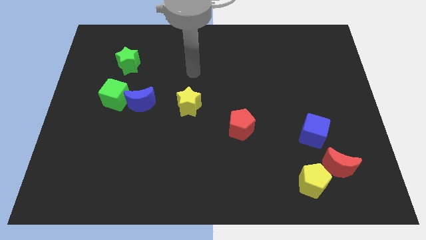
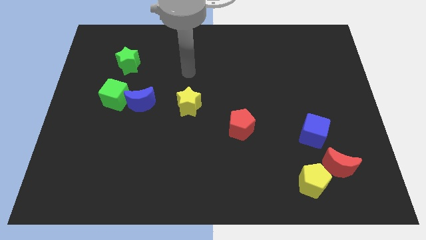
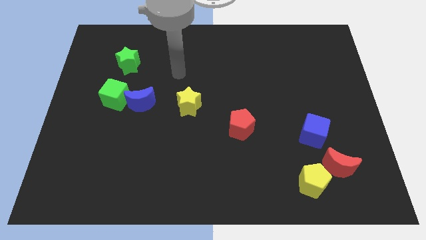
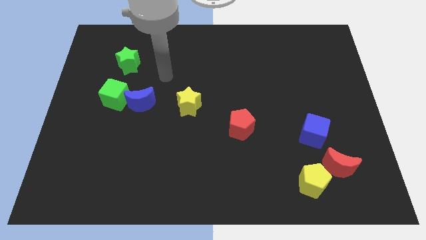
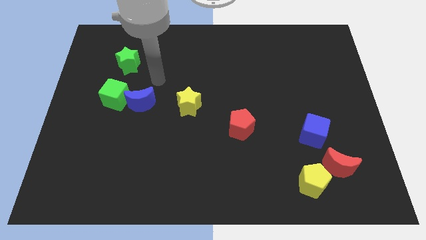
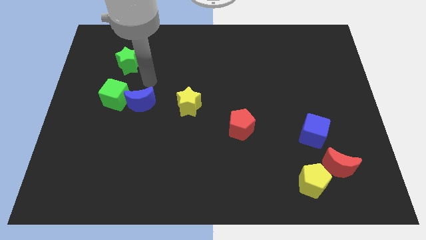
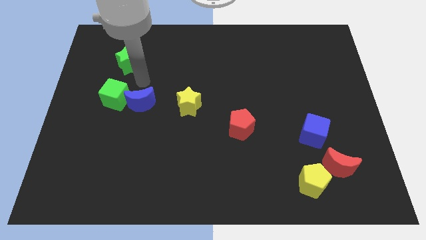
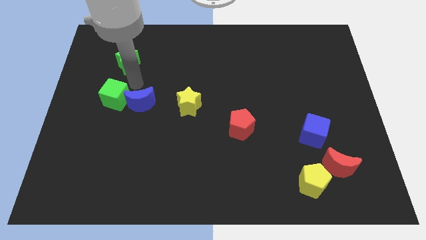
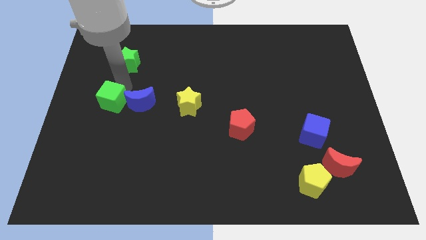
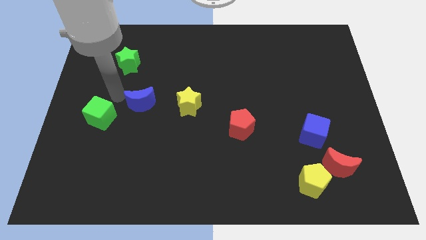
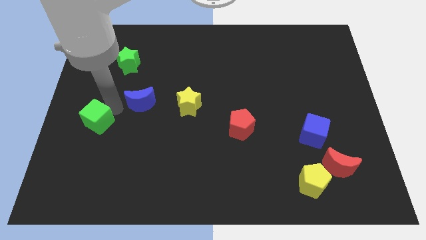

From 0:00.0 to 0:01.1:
separate the blue moon from the green cube

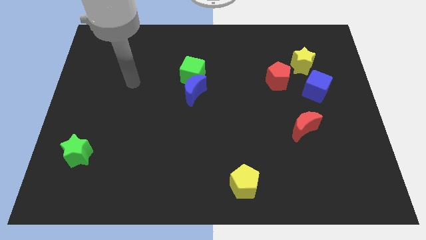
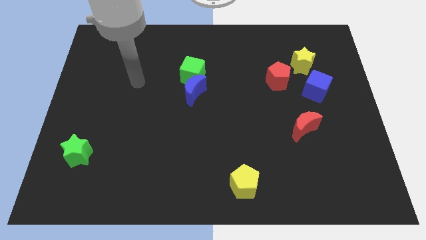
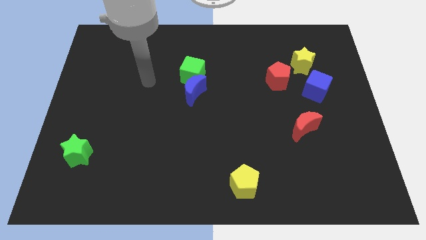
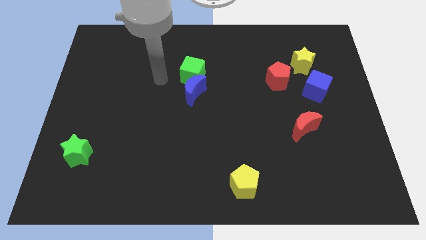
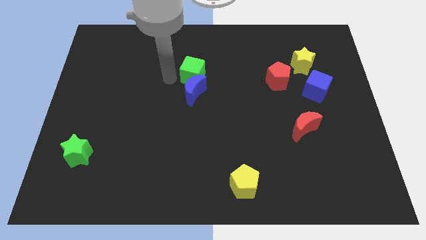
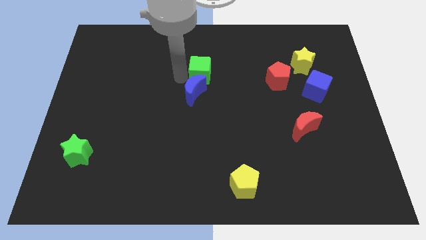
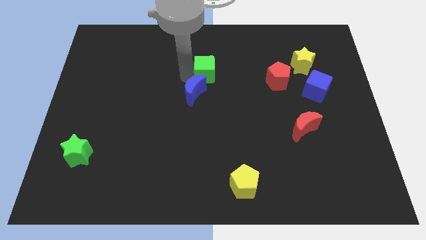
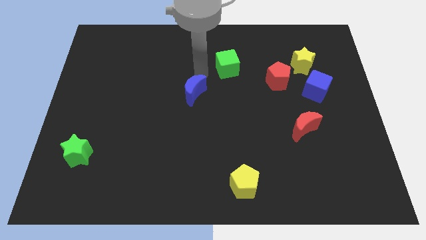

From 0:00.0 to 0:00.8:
move the blue moon away from the green cube

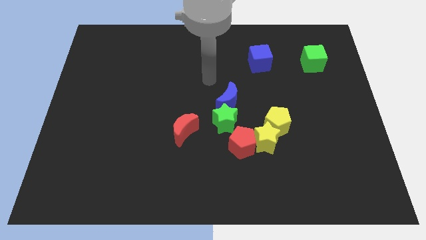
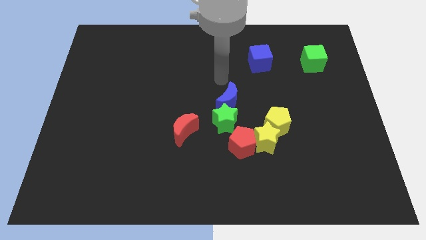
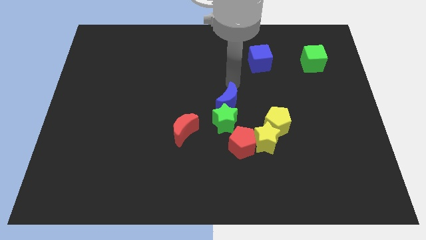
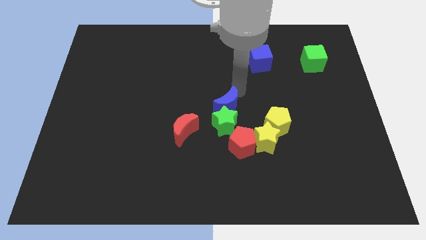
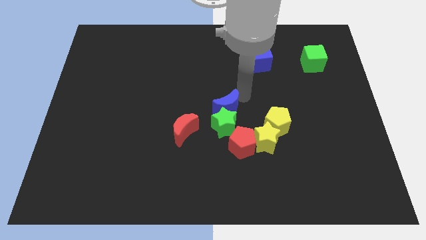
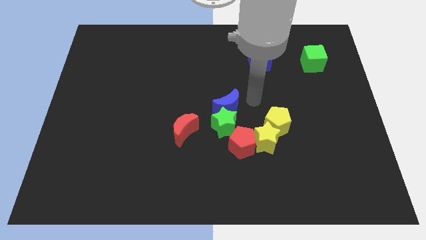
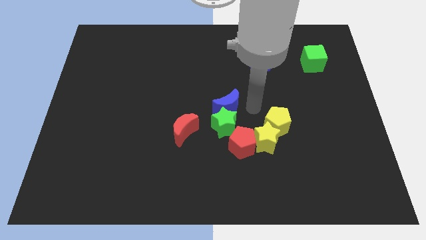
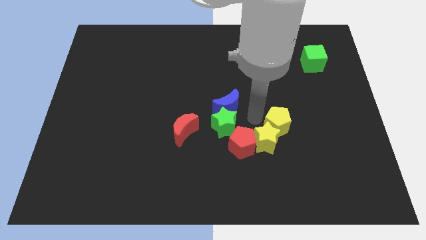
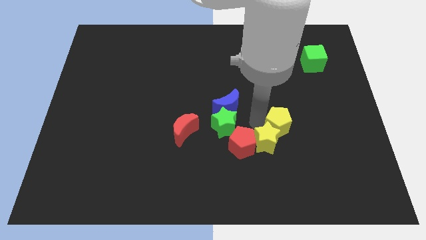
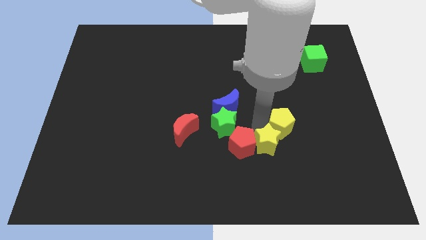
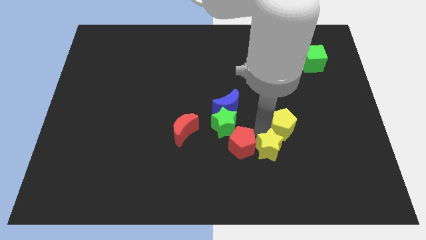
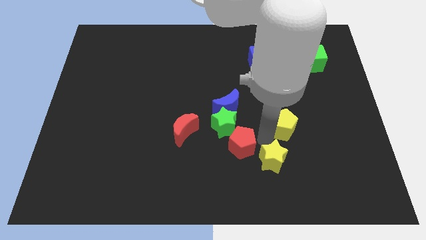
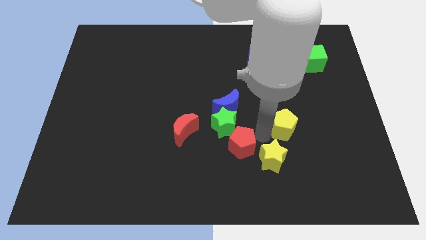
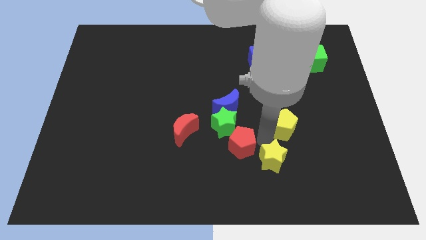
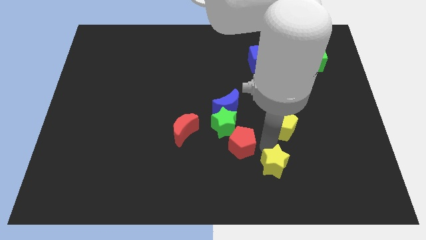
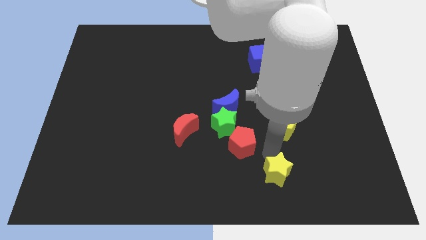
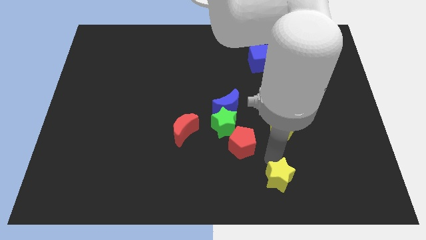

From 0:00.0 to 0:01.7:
pull the yellow star apart from the yellow pentagon and red pentagon

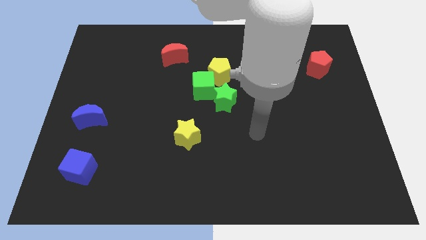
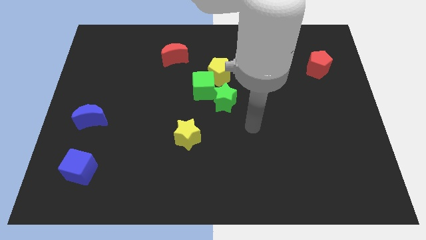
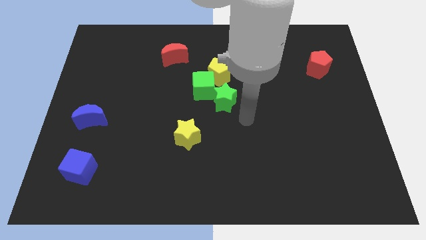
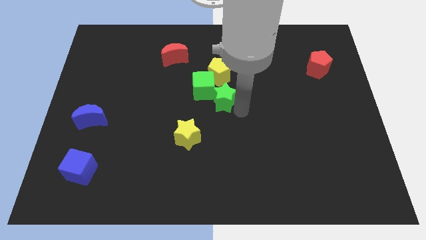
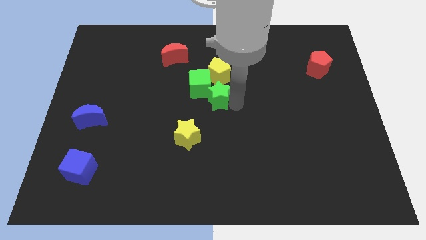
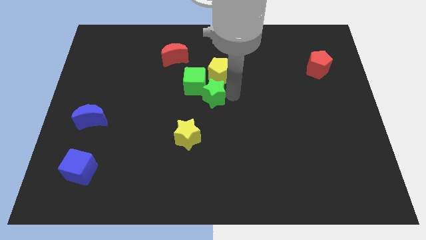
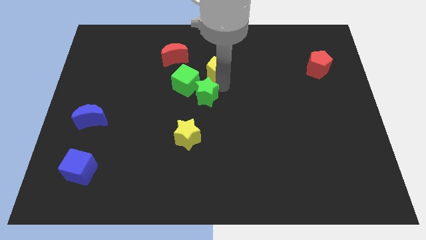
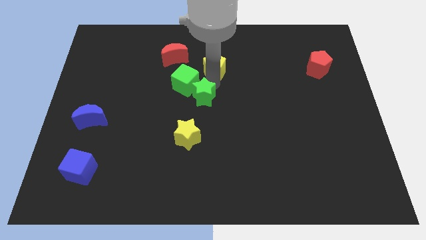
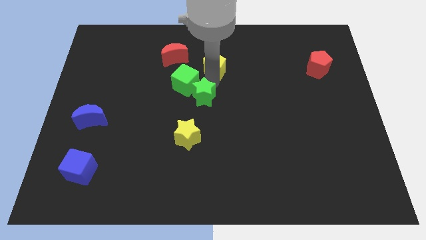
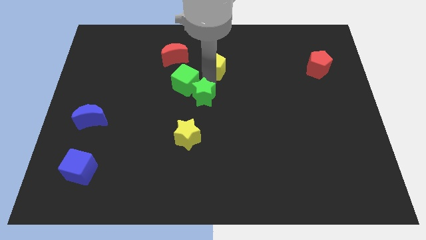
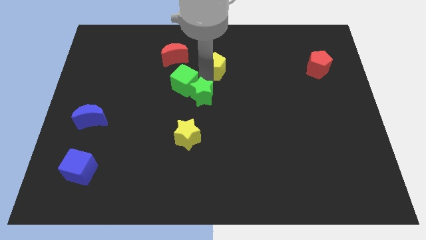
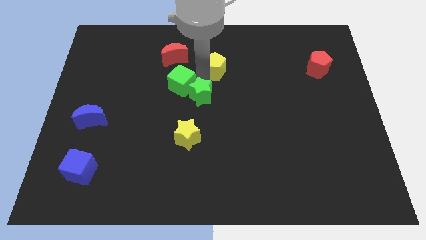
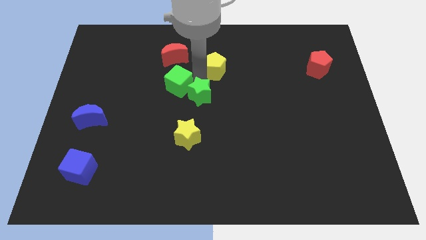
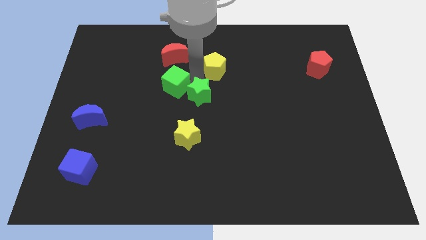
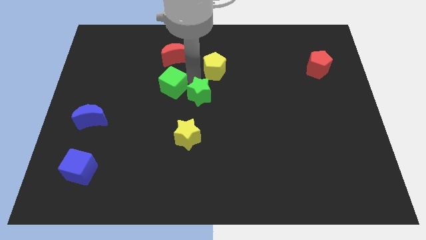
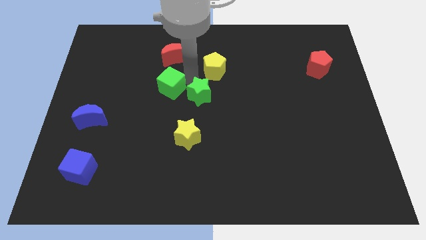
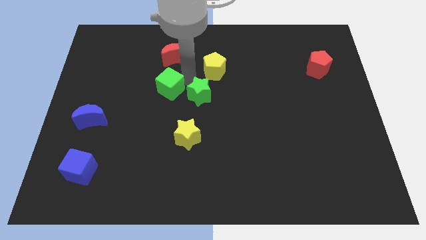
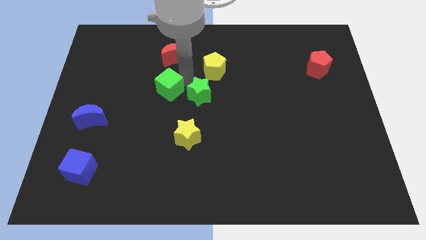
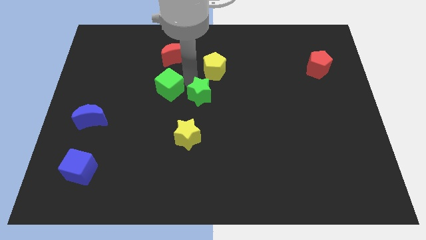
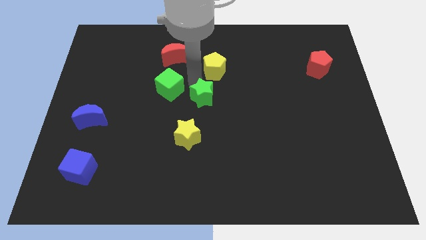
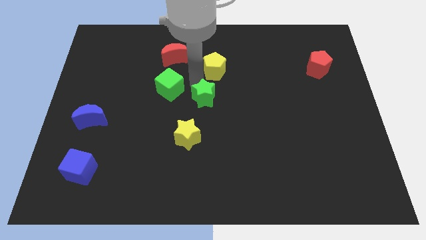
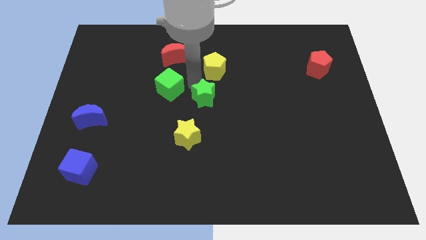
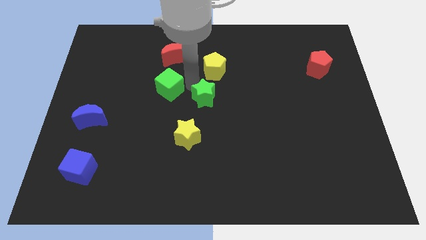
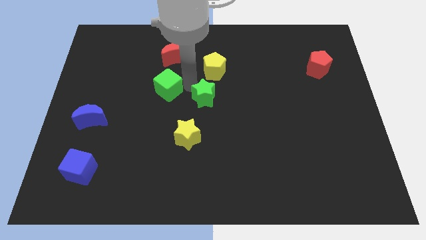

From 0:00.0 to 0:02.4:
pull the green cube apart from the yellow pentagon and green star

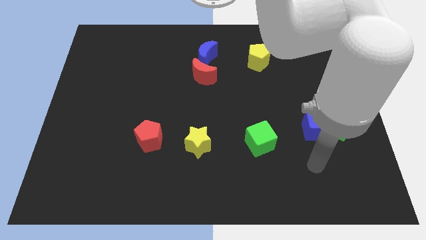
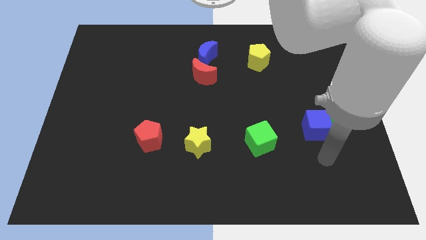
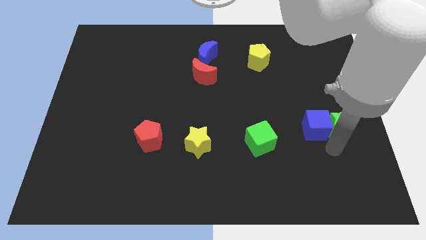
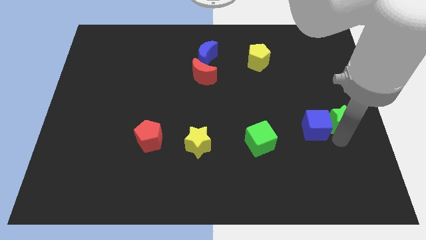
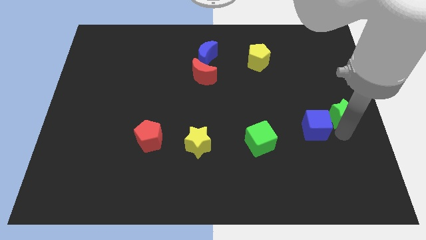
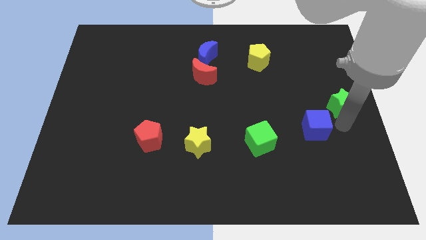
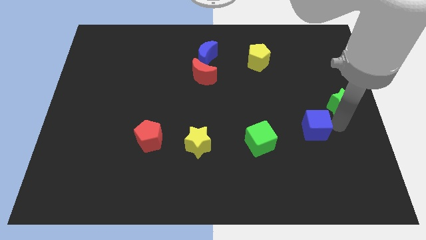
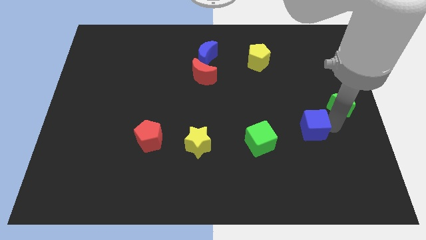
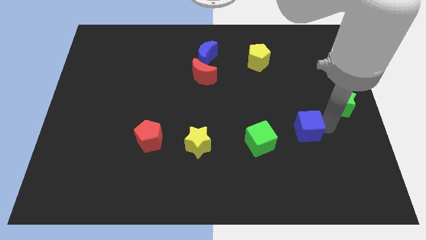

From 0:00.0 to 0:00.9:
move the blue cube away from the green star

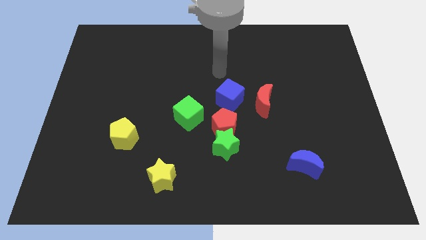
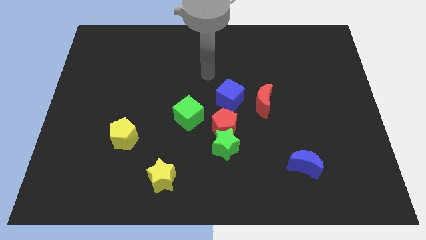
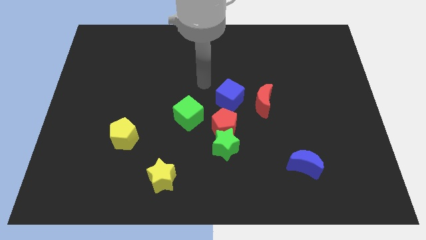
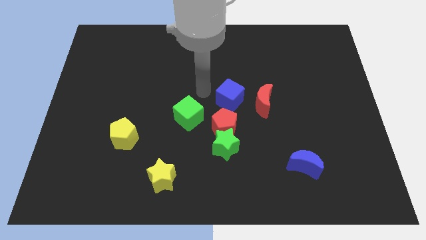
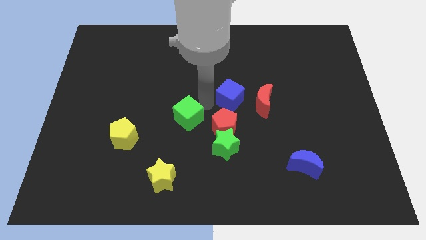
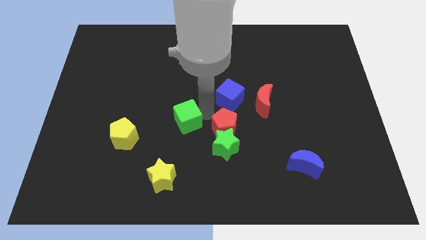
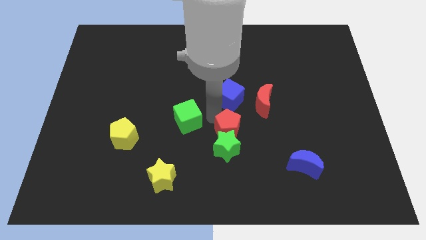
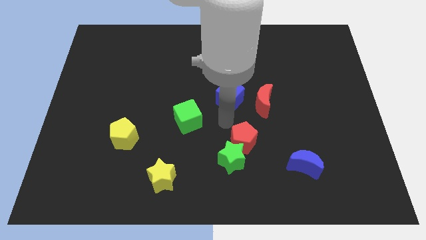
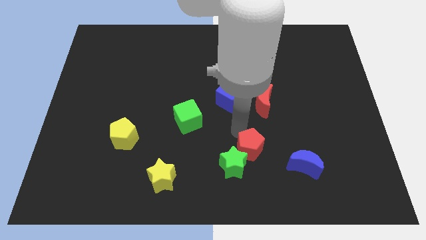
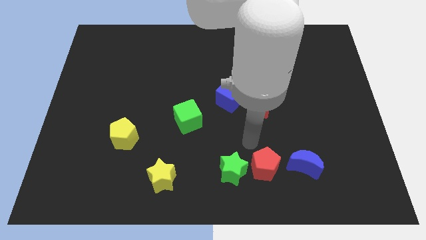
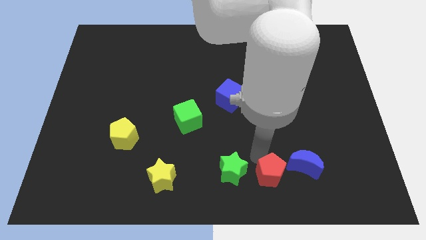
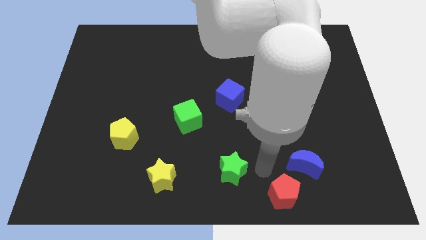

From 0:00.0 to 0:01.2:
pull the green star apart from the red pentagon

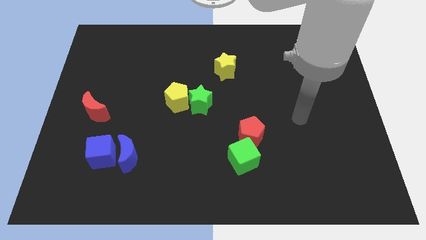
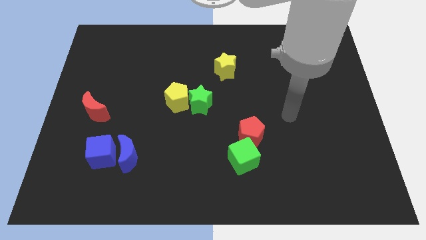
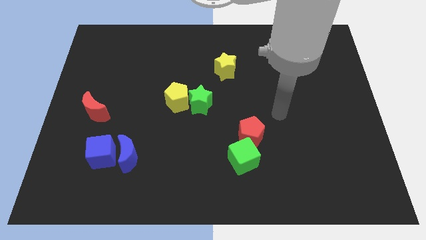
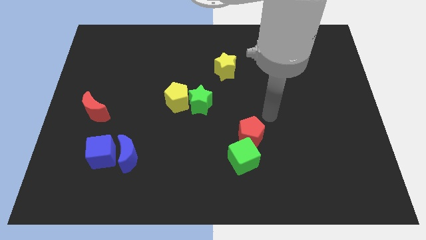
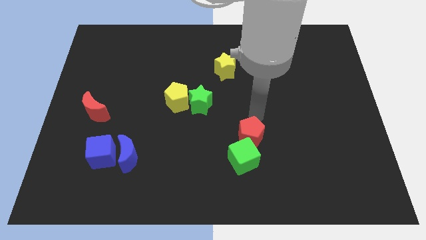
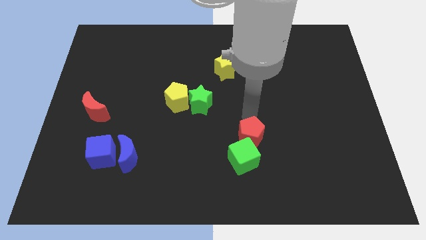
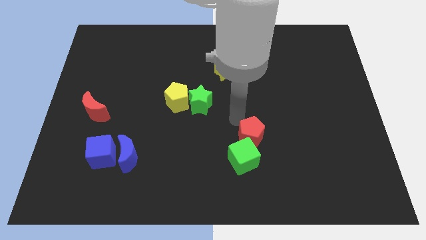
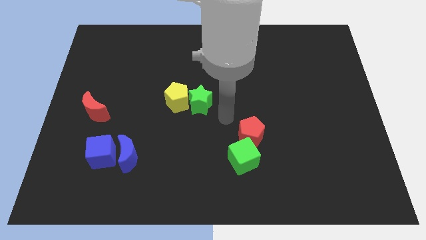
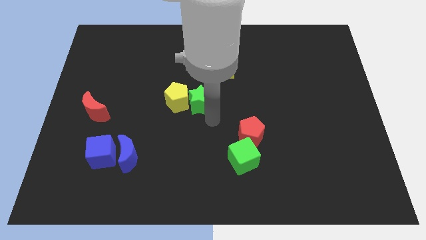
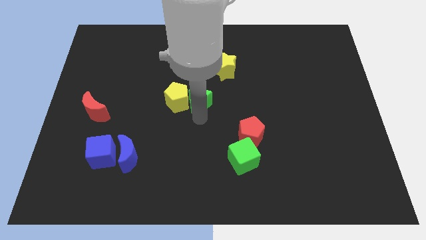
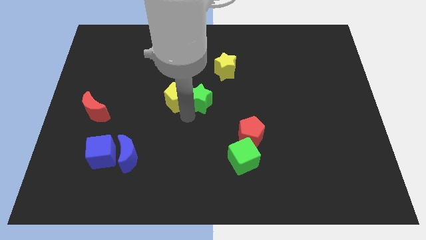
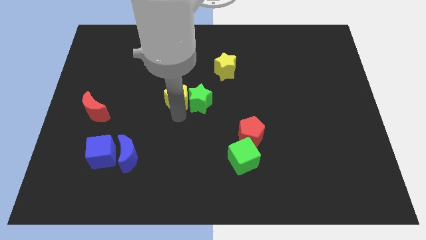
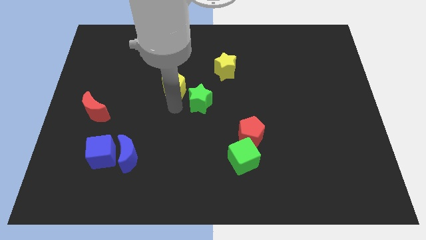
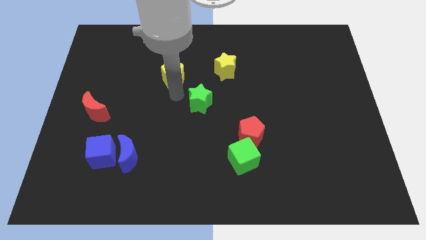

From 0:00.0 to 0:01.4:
pull the green star apart from the yellow pentagon
